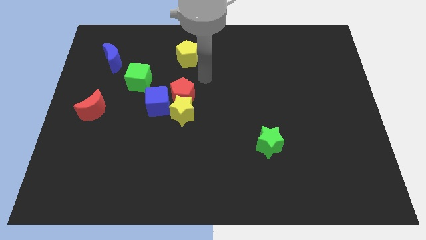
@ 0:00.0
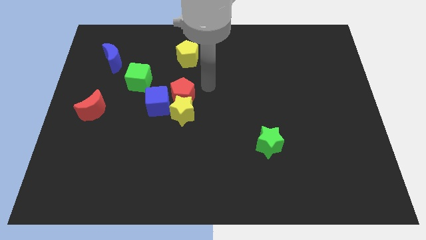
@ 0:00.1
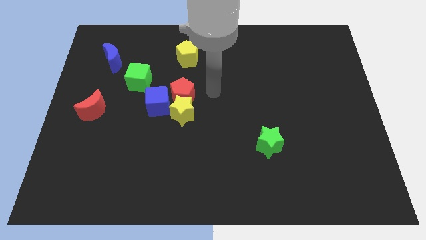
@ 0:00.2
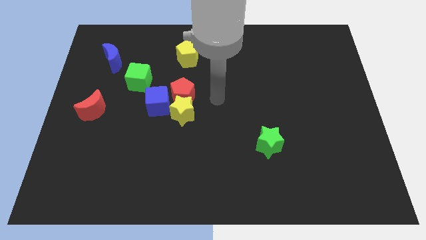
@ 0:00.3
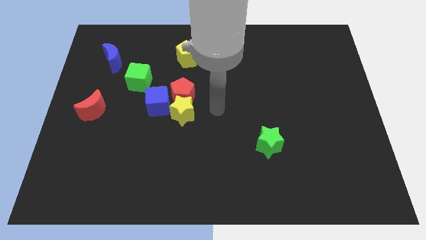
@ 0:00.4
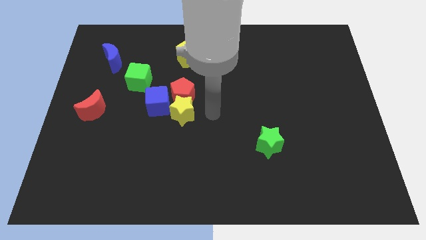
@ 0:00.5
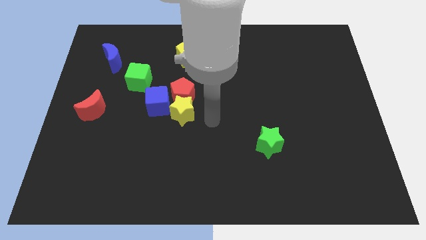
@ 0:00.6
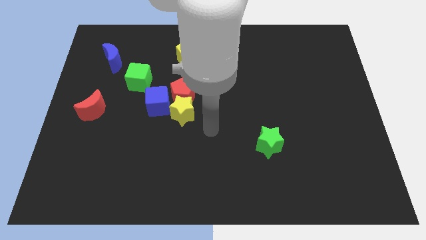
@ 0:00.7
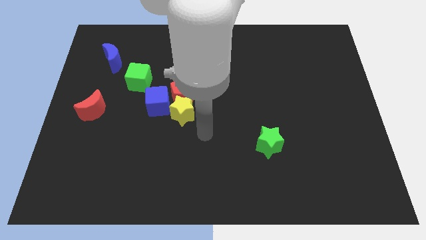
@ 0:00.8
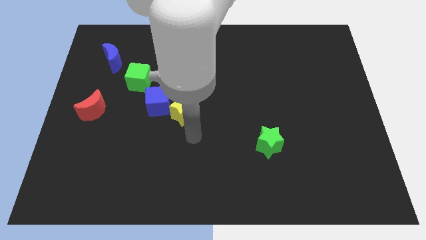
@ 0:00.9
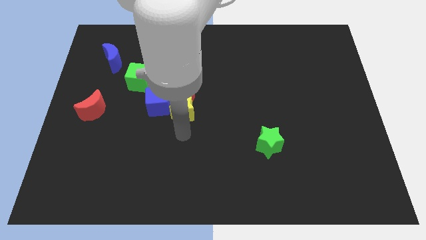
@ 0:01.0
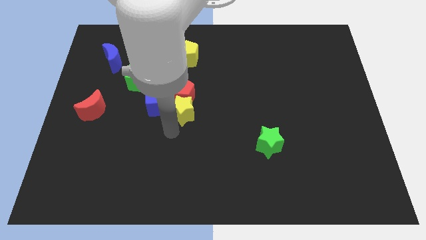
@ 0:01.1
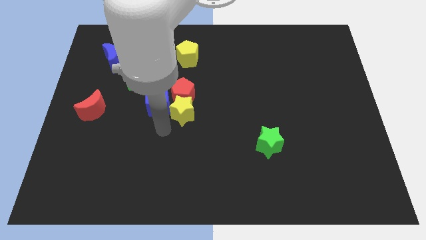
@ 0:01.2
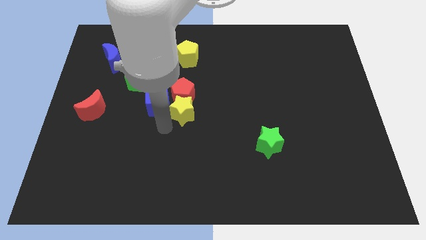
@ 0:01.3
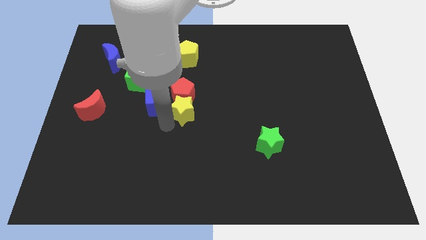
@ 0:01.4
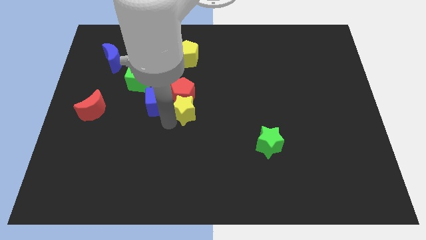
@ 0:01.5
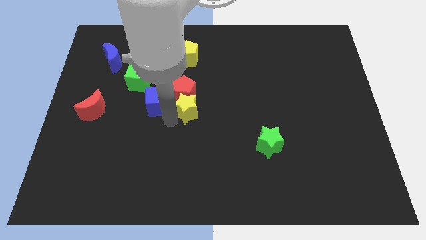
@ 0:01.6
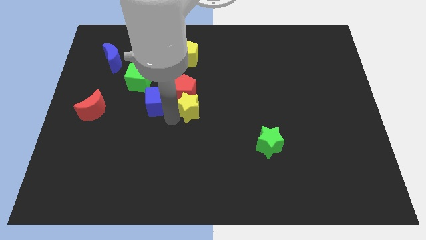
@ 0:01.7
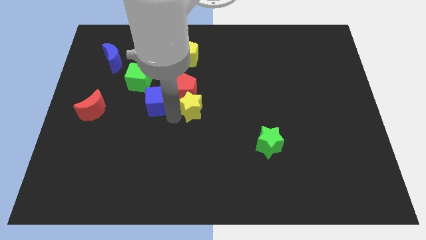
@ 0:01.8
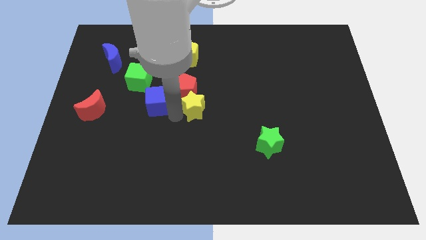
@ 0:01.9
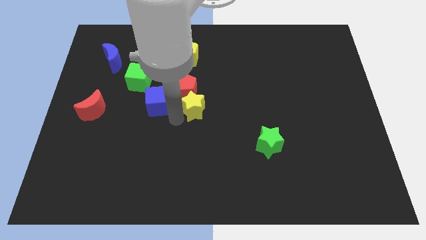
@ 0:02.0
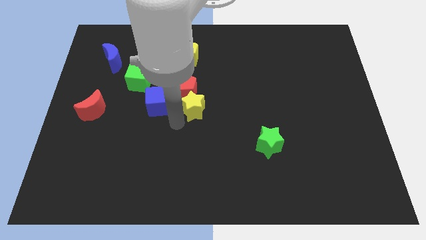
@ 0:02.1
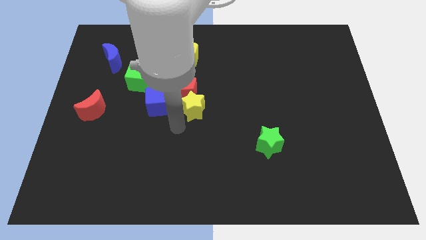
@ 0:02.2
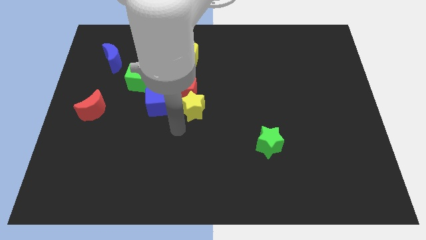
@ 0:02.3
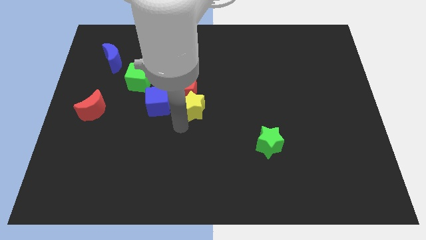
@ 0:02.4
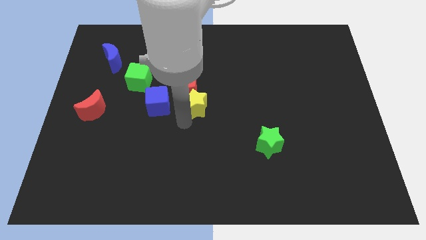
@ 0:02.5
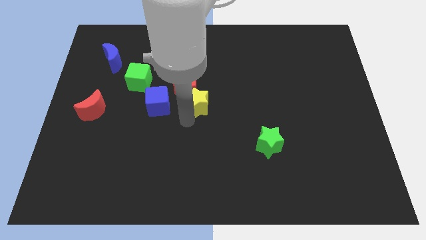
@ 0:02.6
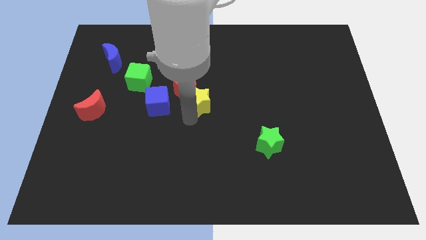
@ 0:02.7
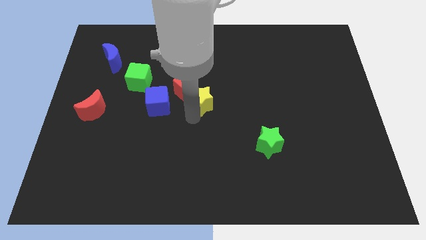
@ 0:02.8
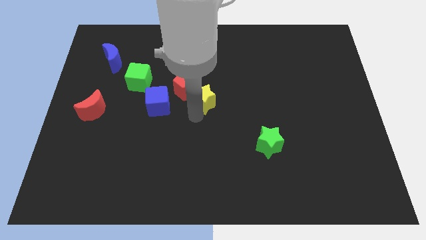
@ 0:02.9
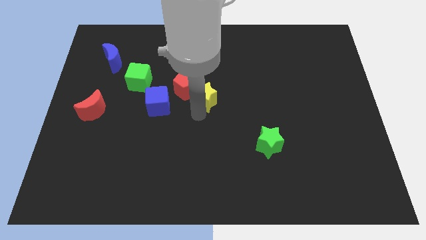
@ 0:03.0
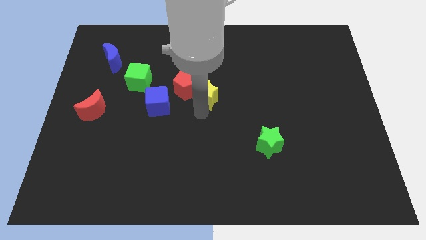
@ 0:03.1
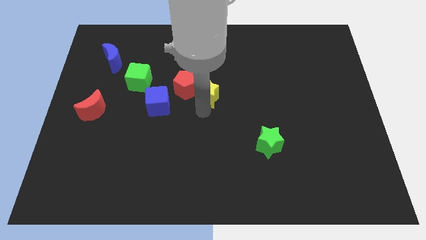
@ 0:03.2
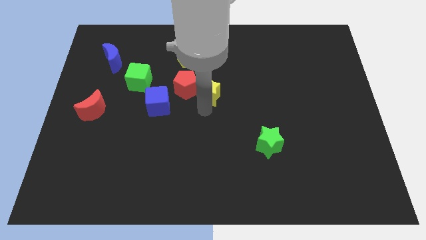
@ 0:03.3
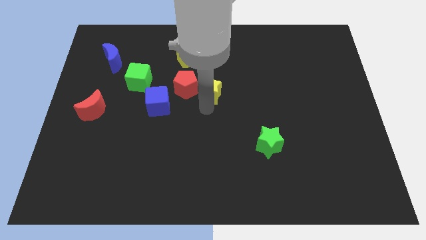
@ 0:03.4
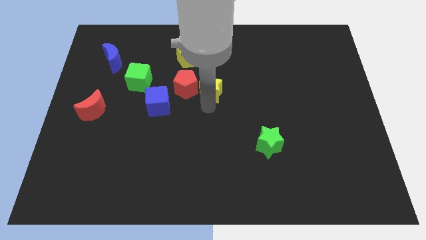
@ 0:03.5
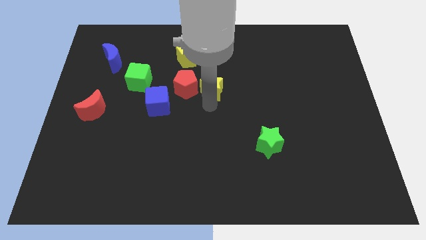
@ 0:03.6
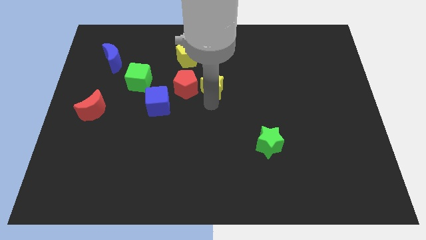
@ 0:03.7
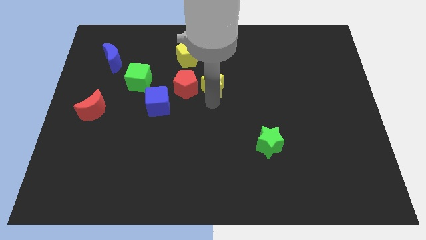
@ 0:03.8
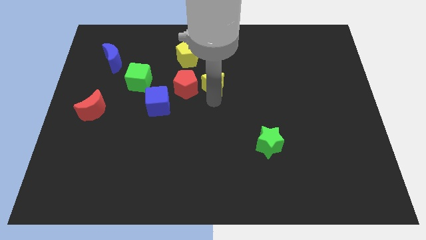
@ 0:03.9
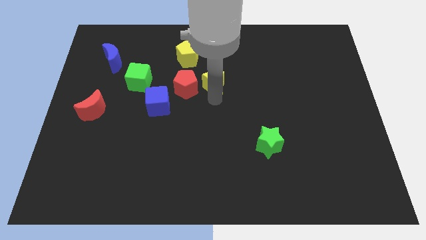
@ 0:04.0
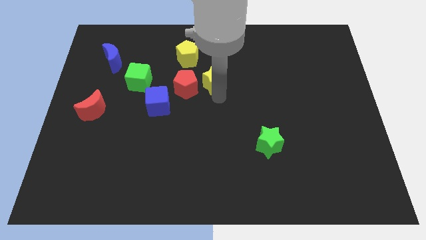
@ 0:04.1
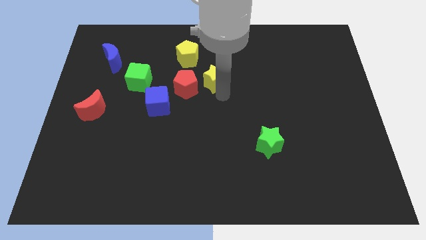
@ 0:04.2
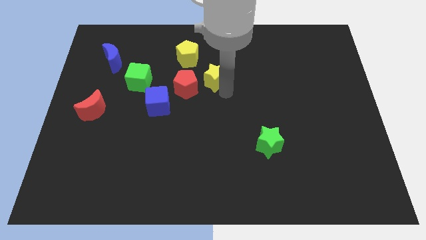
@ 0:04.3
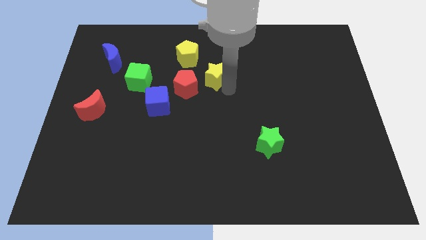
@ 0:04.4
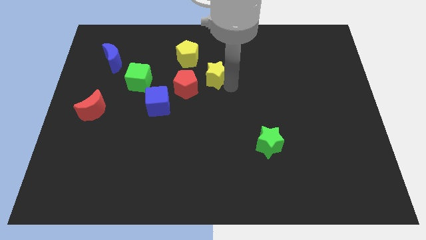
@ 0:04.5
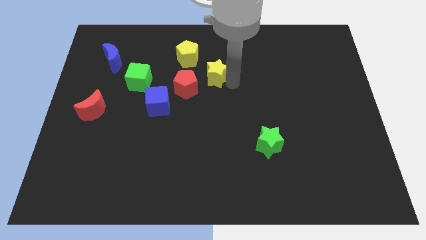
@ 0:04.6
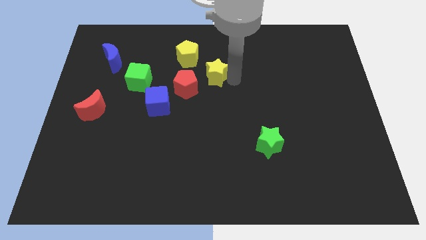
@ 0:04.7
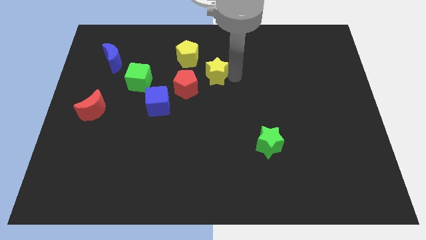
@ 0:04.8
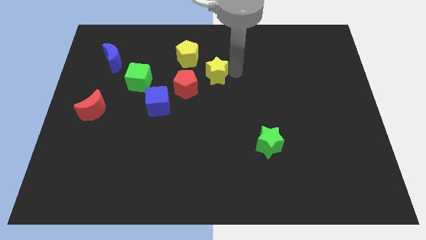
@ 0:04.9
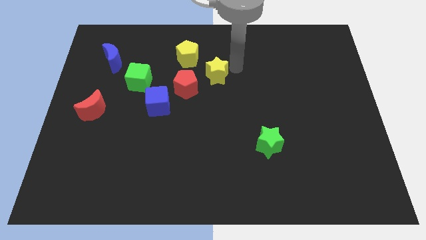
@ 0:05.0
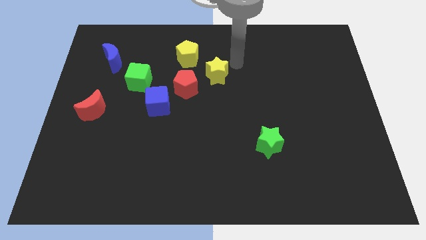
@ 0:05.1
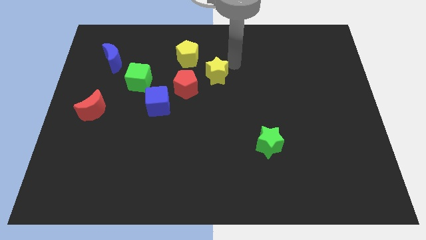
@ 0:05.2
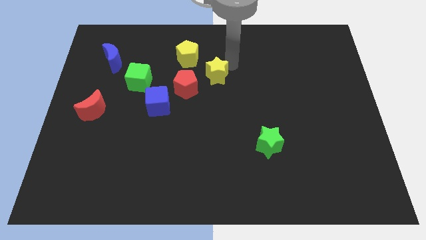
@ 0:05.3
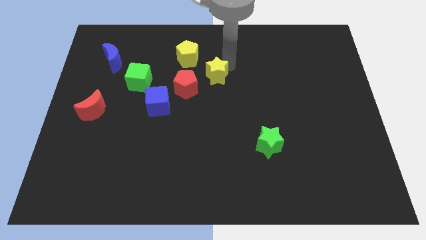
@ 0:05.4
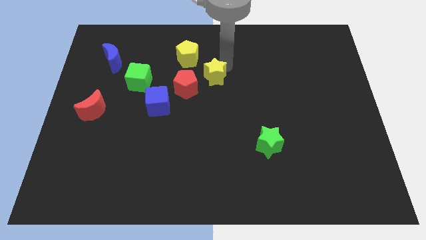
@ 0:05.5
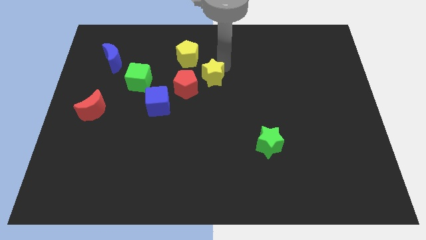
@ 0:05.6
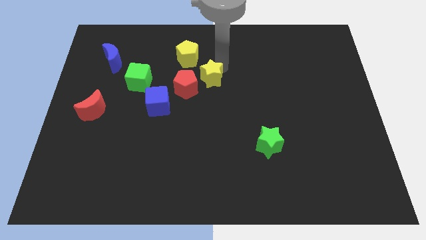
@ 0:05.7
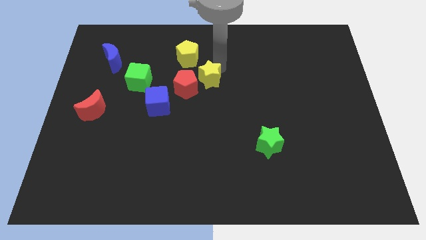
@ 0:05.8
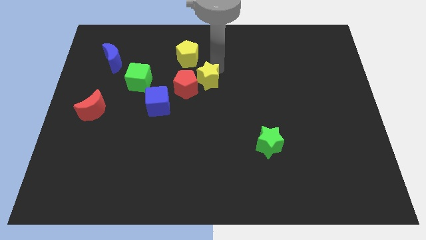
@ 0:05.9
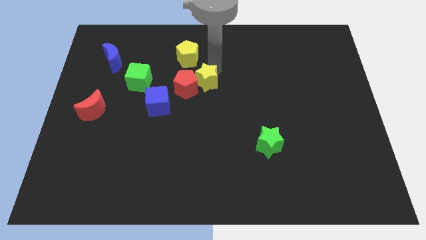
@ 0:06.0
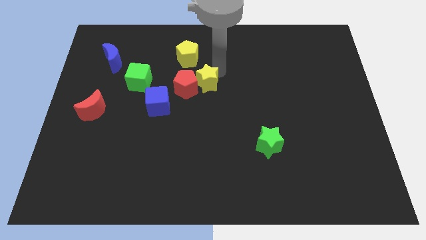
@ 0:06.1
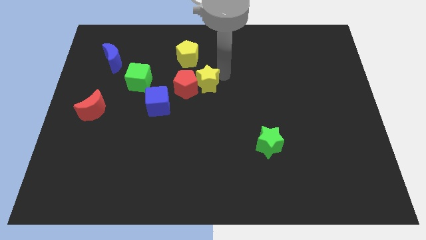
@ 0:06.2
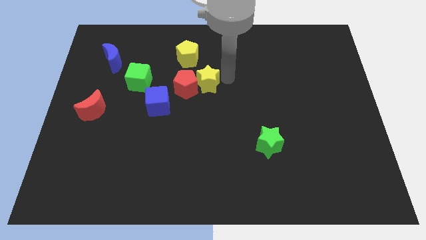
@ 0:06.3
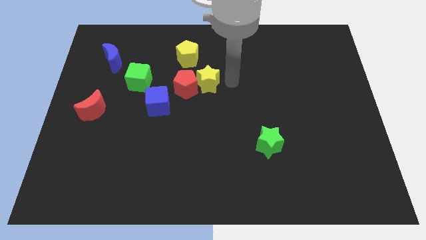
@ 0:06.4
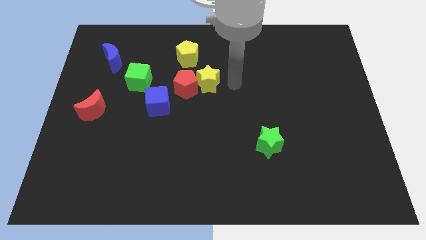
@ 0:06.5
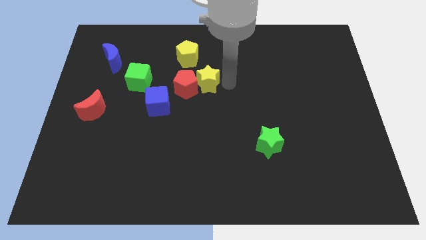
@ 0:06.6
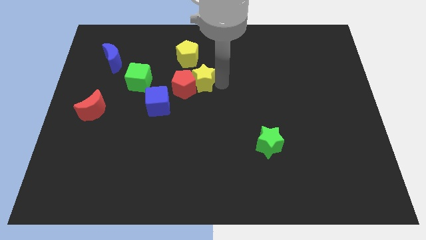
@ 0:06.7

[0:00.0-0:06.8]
slide the yellow star just right of the green cube

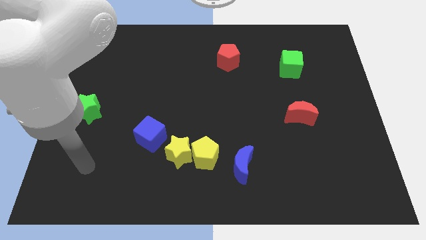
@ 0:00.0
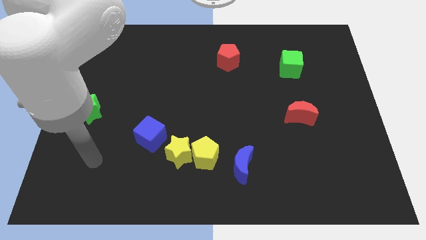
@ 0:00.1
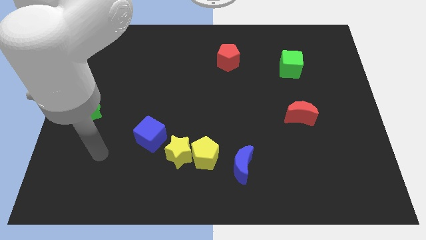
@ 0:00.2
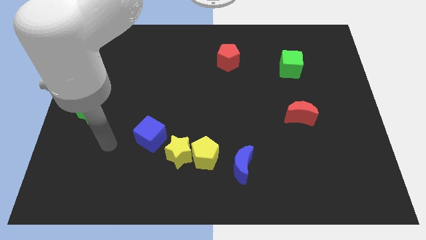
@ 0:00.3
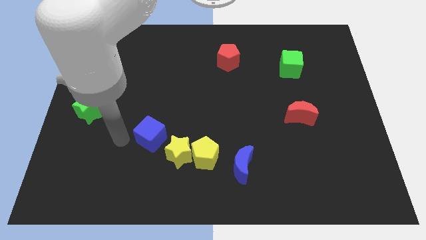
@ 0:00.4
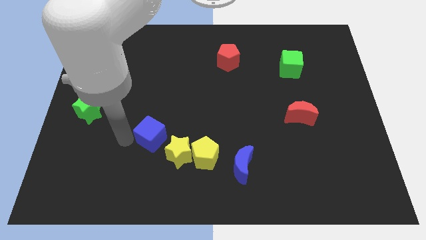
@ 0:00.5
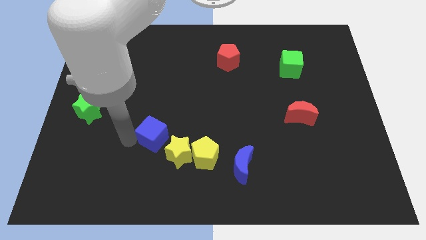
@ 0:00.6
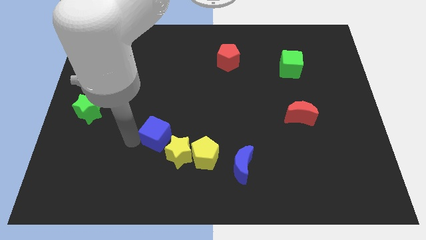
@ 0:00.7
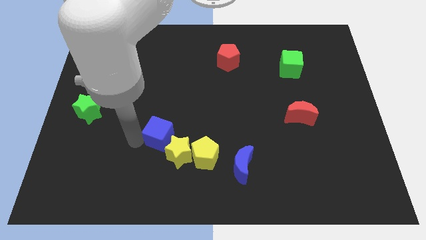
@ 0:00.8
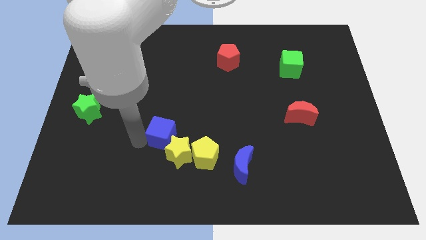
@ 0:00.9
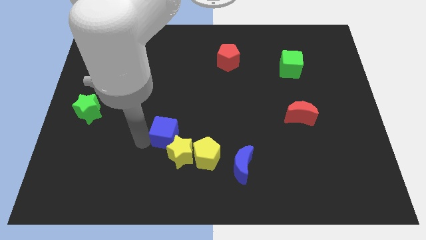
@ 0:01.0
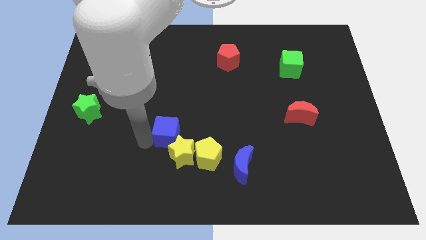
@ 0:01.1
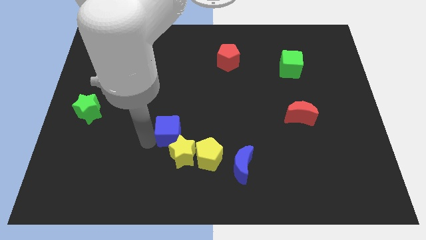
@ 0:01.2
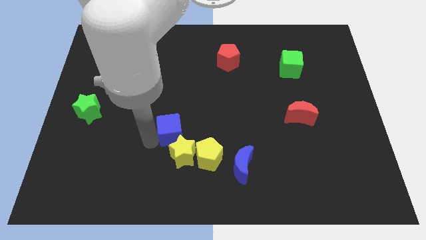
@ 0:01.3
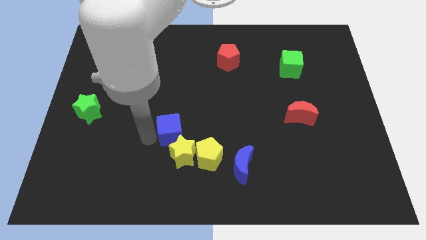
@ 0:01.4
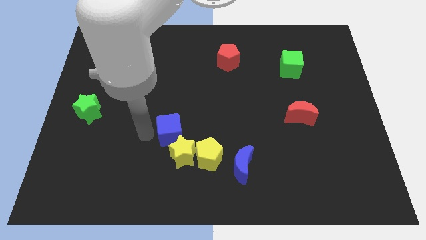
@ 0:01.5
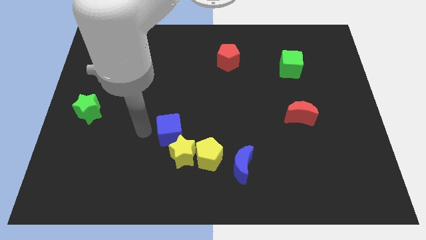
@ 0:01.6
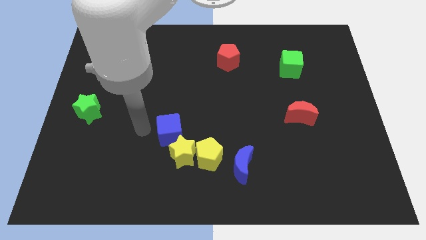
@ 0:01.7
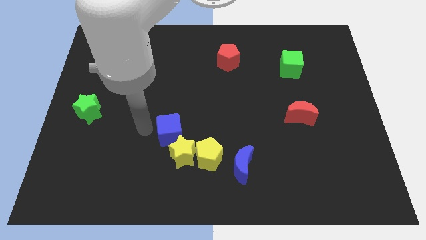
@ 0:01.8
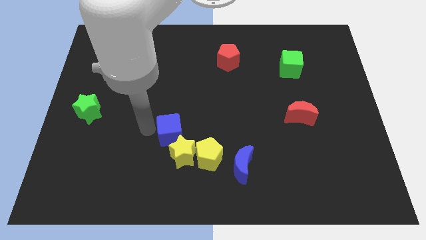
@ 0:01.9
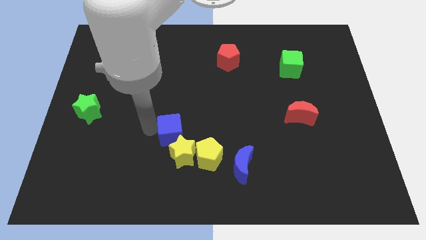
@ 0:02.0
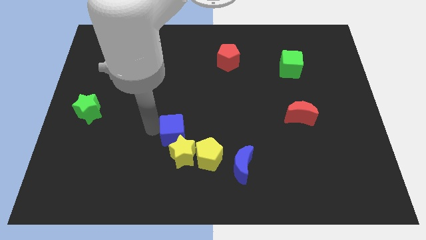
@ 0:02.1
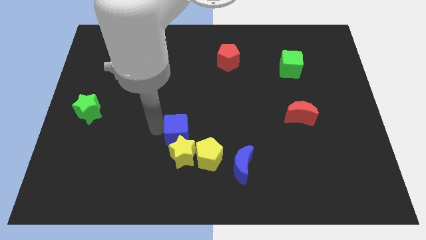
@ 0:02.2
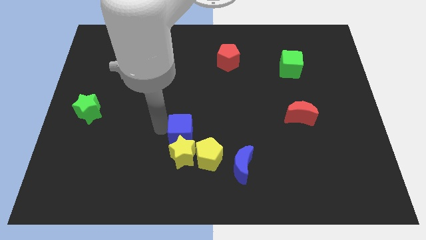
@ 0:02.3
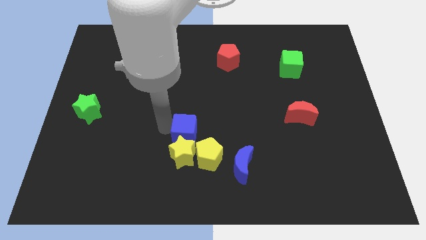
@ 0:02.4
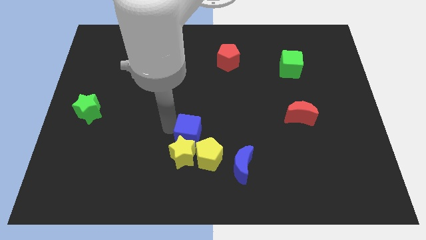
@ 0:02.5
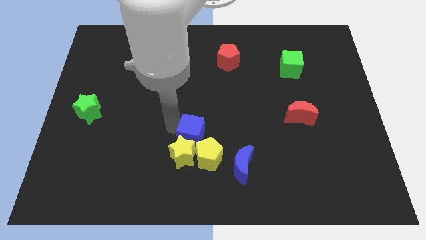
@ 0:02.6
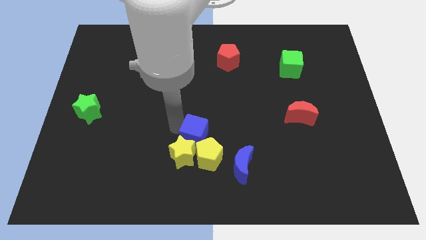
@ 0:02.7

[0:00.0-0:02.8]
slide the blue cube to the top left side of the blue moon
